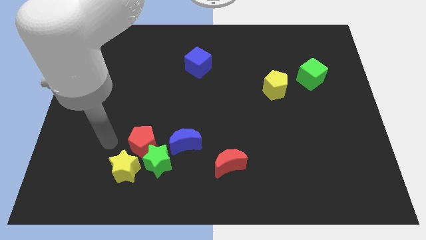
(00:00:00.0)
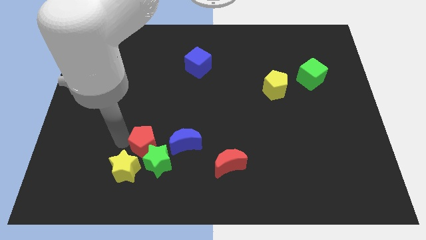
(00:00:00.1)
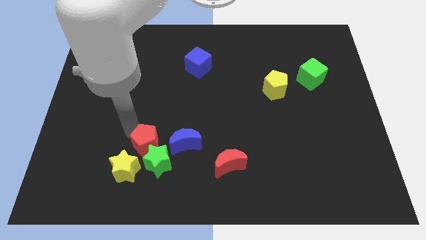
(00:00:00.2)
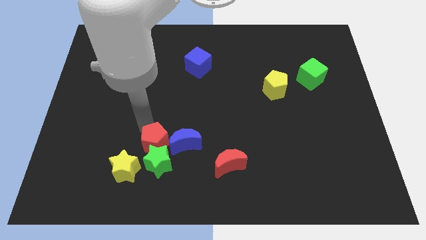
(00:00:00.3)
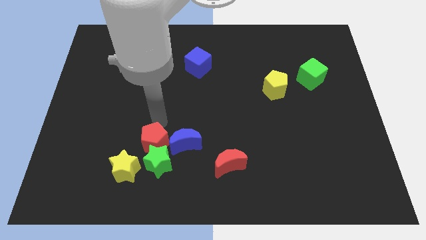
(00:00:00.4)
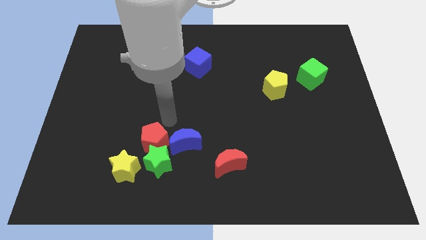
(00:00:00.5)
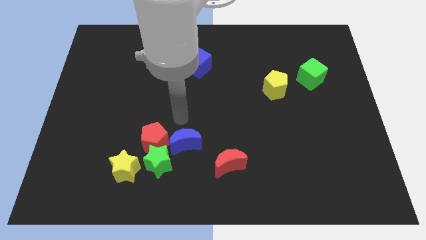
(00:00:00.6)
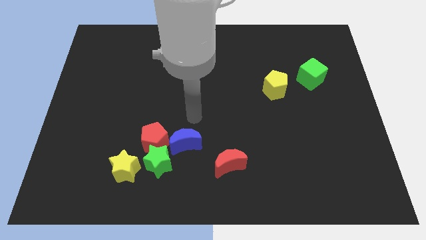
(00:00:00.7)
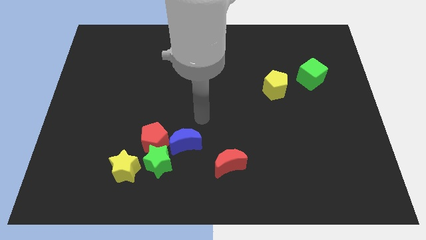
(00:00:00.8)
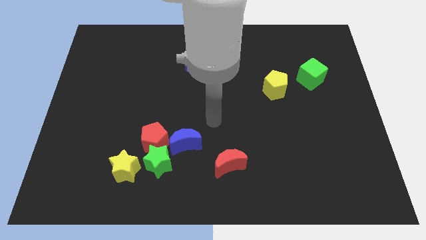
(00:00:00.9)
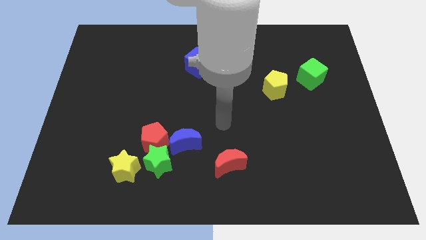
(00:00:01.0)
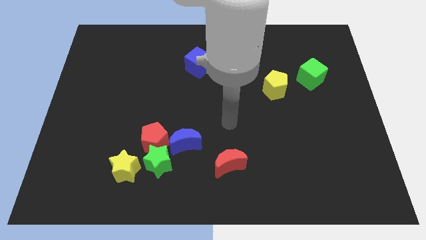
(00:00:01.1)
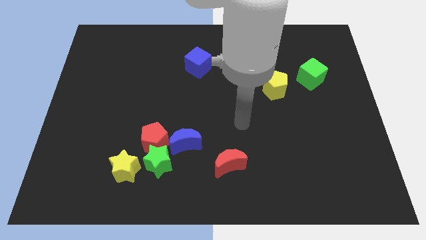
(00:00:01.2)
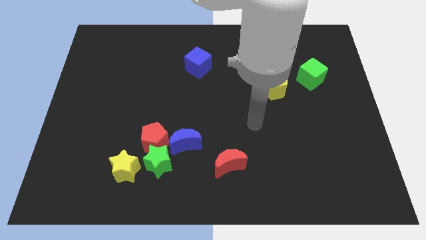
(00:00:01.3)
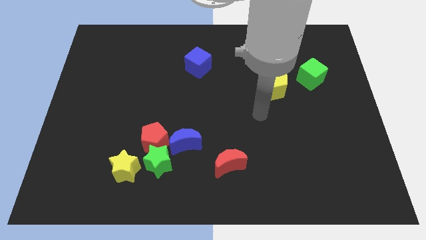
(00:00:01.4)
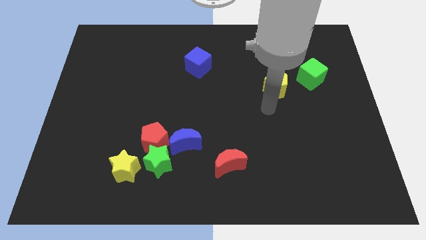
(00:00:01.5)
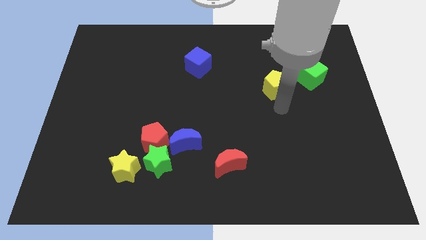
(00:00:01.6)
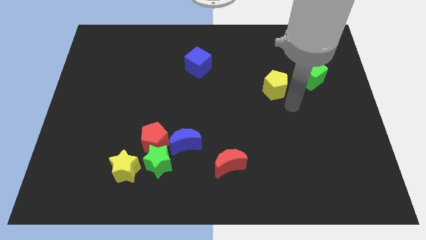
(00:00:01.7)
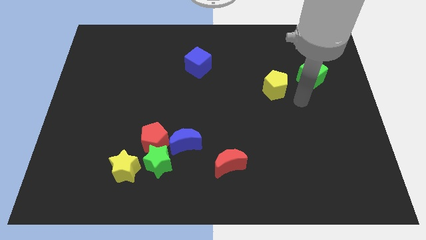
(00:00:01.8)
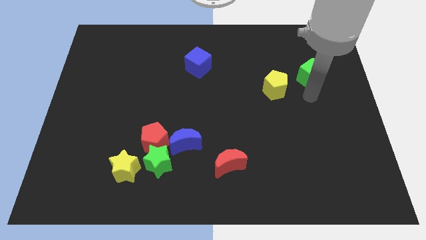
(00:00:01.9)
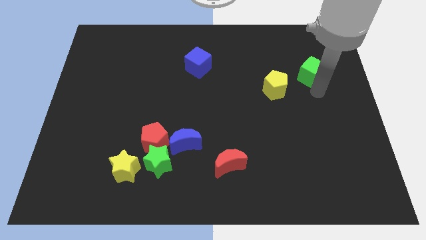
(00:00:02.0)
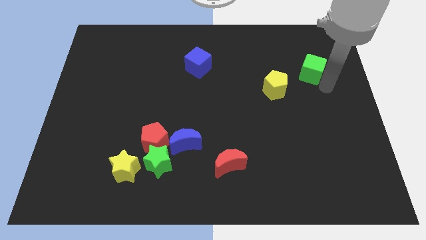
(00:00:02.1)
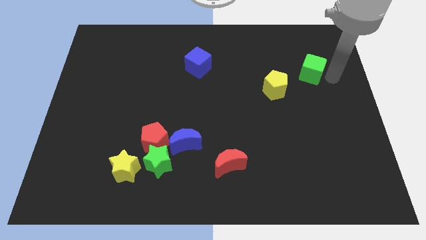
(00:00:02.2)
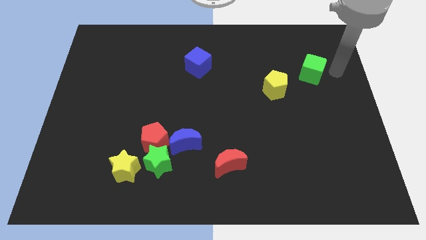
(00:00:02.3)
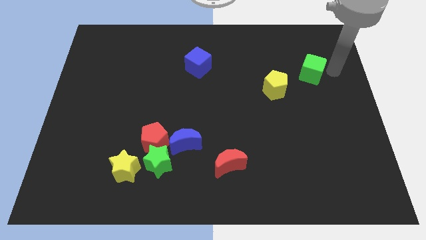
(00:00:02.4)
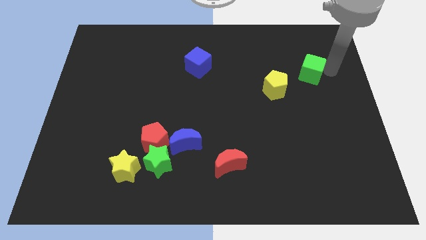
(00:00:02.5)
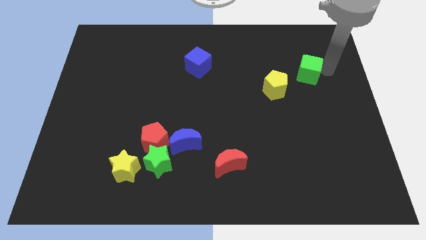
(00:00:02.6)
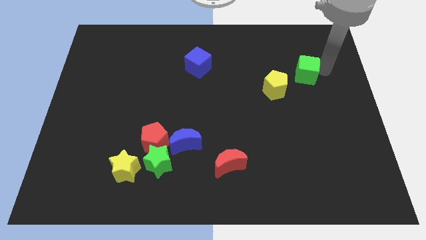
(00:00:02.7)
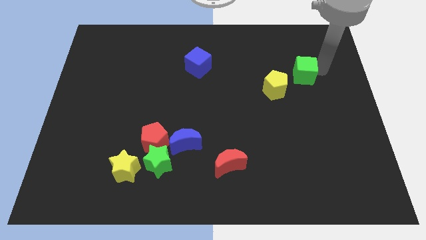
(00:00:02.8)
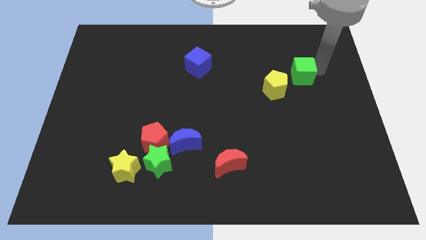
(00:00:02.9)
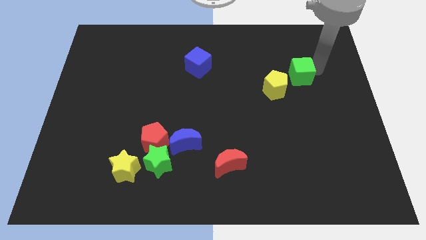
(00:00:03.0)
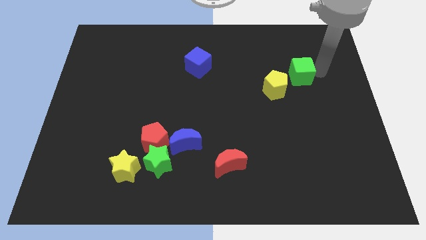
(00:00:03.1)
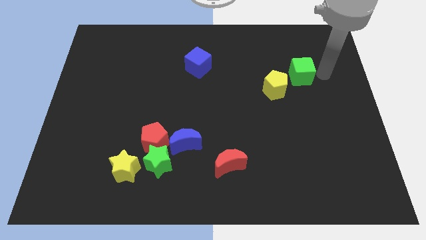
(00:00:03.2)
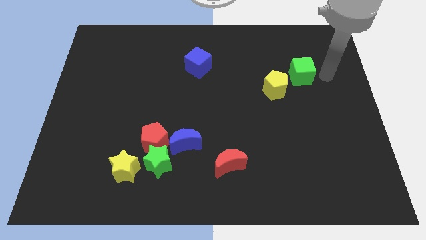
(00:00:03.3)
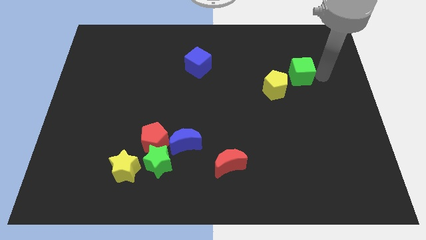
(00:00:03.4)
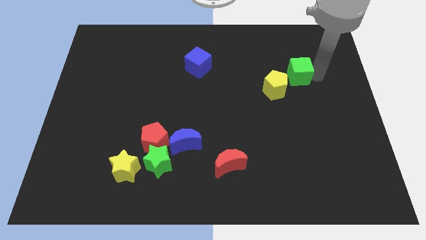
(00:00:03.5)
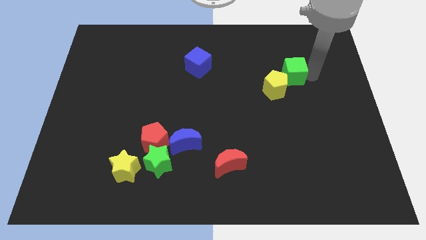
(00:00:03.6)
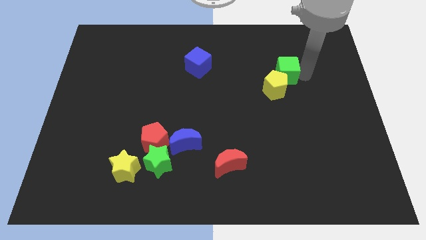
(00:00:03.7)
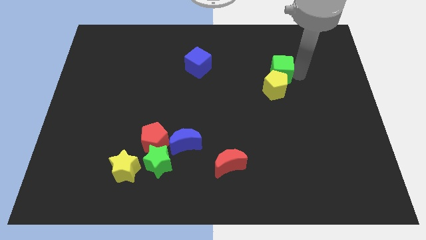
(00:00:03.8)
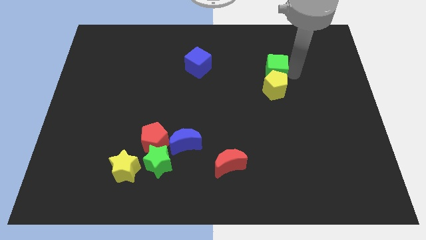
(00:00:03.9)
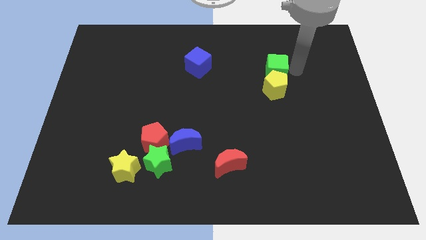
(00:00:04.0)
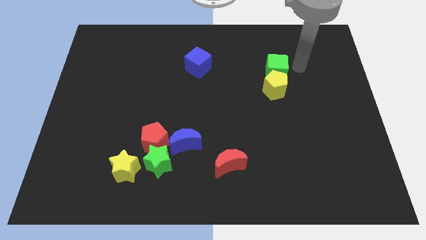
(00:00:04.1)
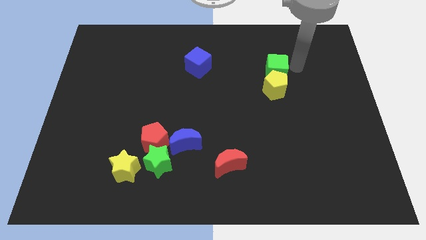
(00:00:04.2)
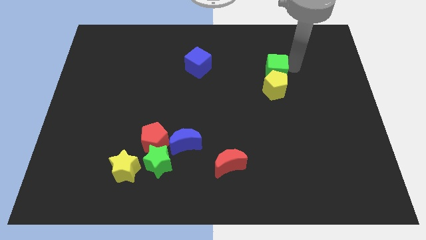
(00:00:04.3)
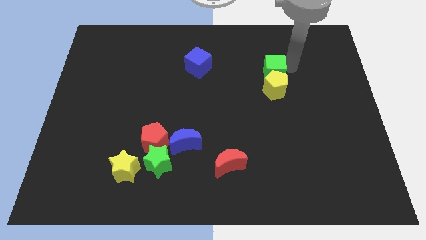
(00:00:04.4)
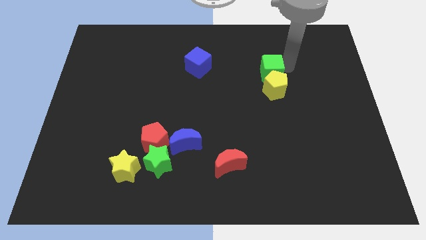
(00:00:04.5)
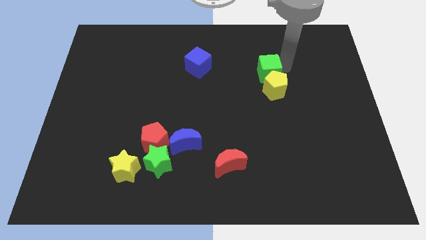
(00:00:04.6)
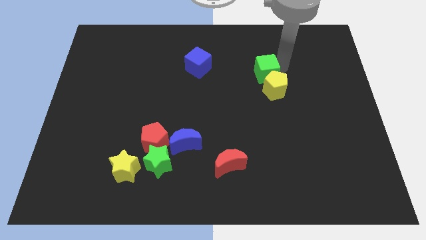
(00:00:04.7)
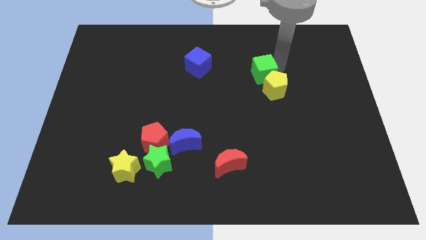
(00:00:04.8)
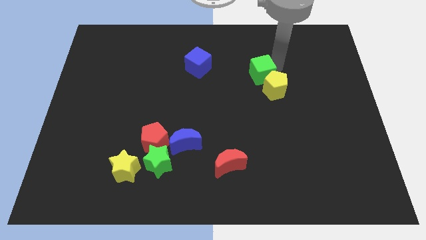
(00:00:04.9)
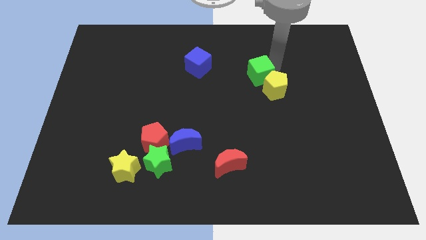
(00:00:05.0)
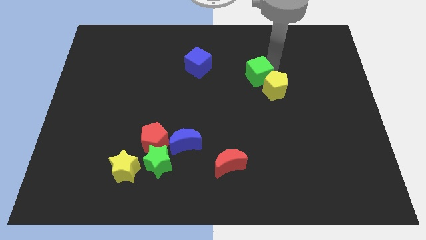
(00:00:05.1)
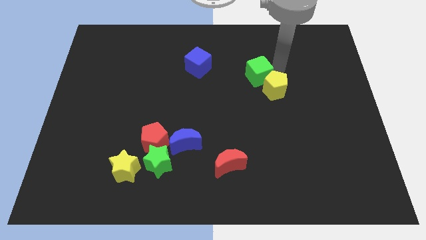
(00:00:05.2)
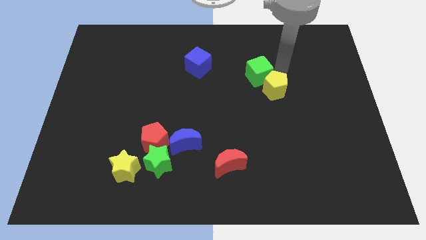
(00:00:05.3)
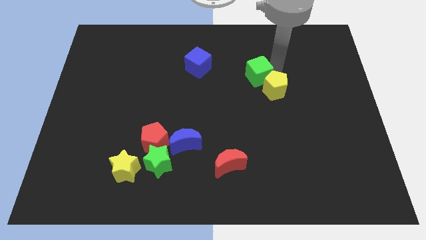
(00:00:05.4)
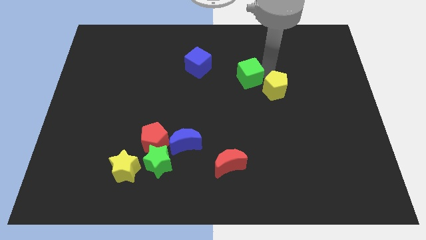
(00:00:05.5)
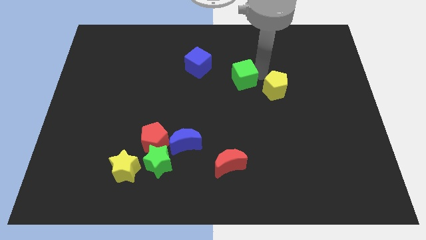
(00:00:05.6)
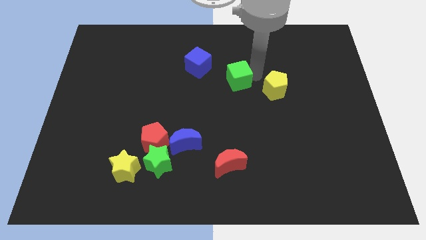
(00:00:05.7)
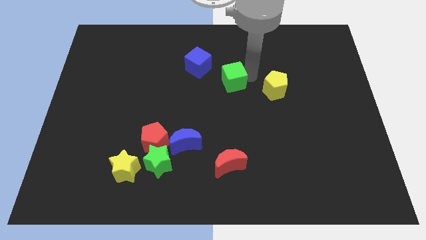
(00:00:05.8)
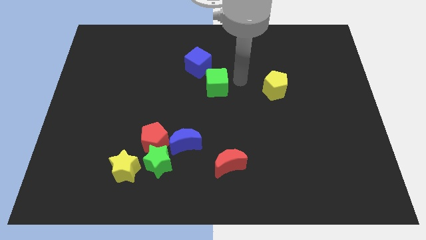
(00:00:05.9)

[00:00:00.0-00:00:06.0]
move the green cube left

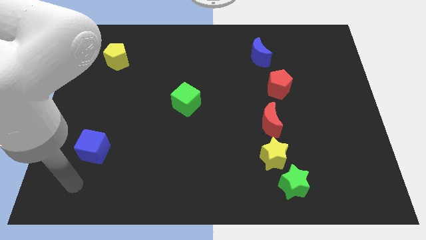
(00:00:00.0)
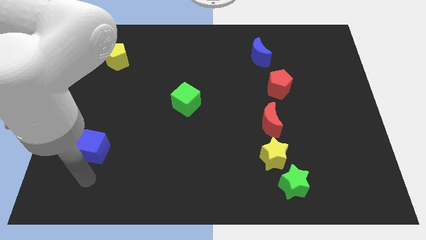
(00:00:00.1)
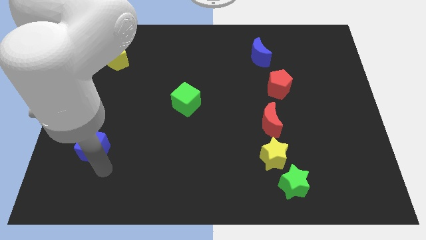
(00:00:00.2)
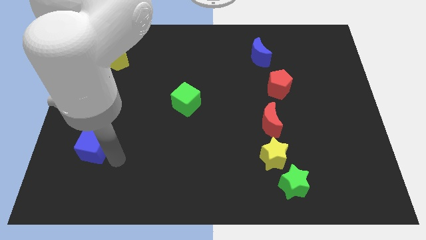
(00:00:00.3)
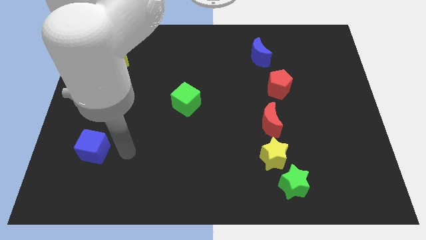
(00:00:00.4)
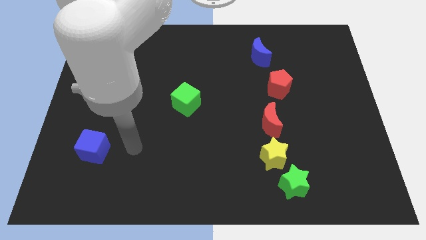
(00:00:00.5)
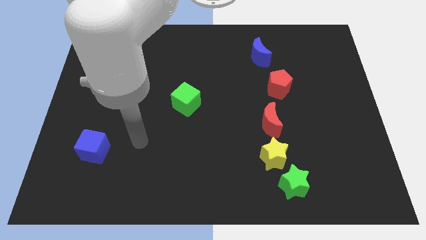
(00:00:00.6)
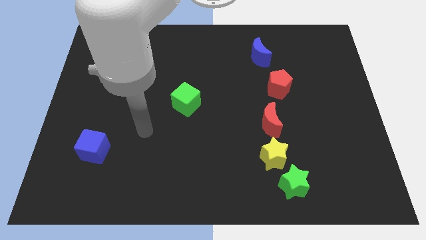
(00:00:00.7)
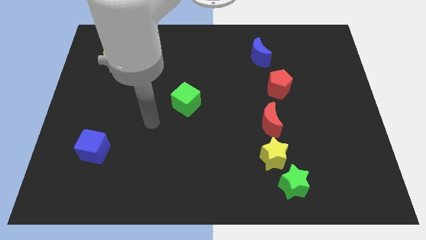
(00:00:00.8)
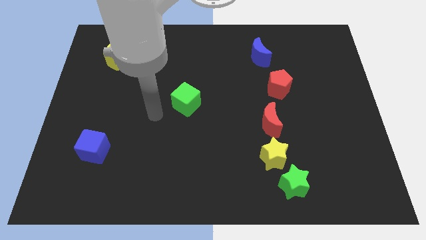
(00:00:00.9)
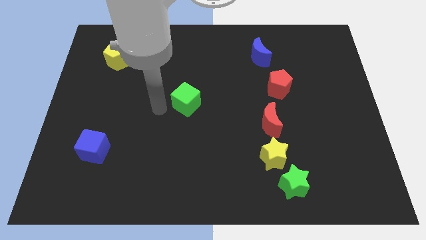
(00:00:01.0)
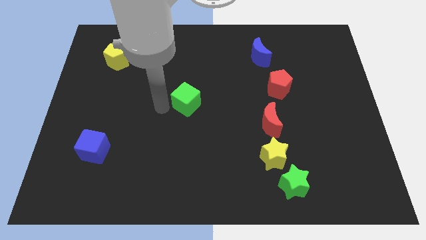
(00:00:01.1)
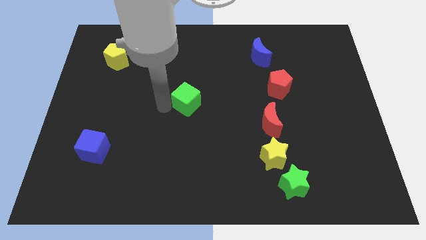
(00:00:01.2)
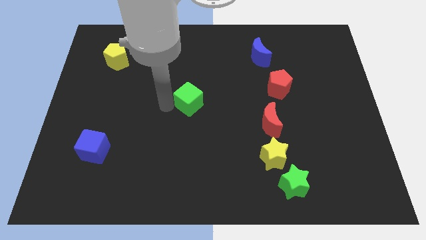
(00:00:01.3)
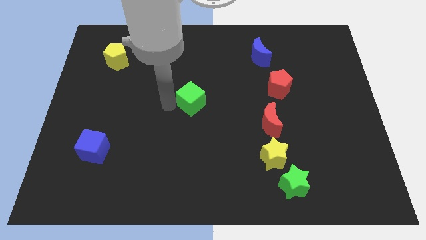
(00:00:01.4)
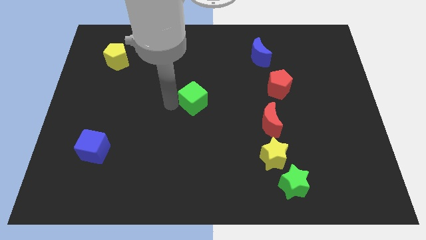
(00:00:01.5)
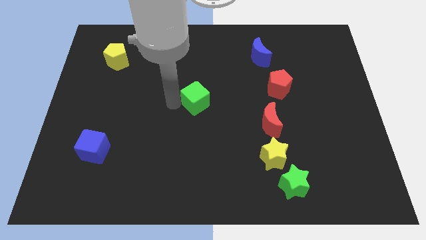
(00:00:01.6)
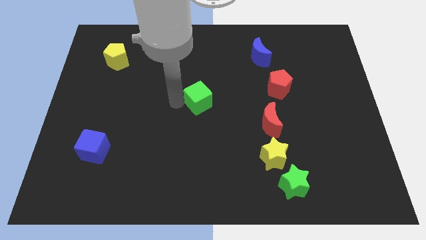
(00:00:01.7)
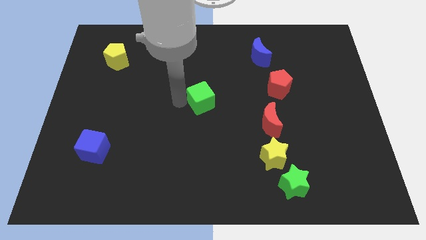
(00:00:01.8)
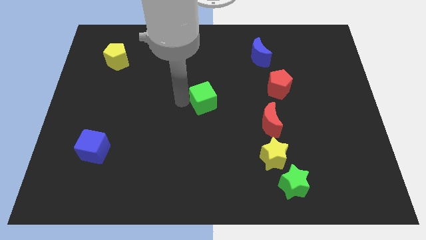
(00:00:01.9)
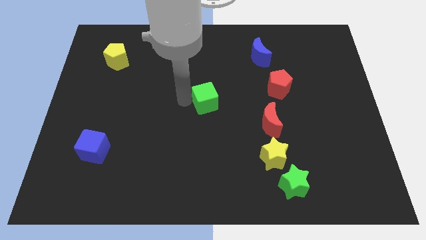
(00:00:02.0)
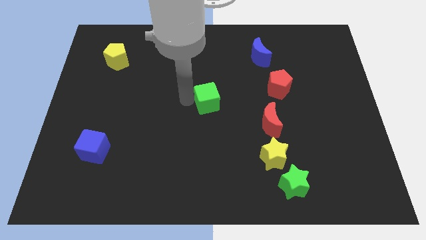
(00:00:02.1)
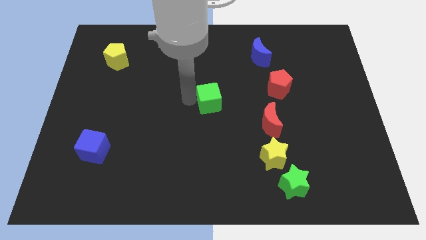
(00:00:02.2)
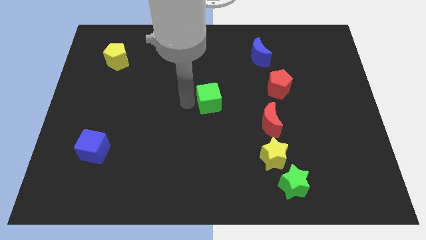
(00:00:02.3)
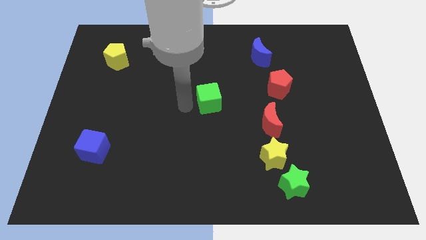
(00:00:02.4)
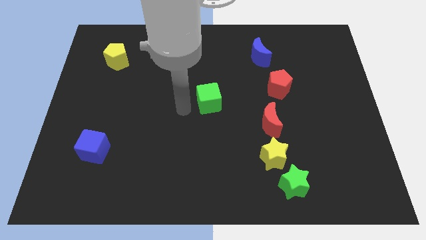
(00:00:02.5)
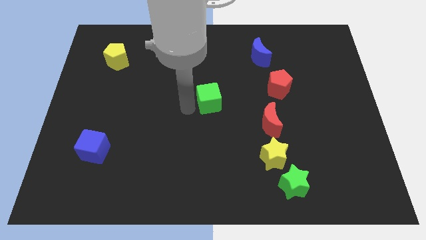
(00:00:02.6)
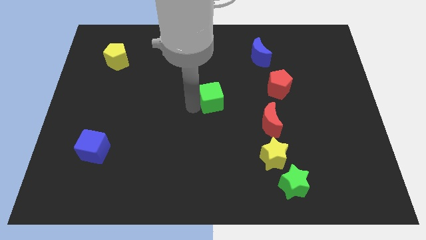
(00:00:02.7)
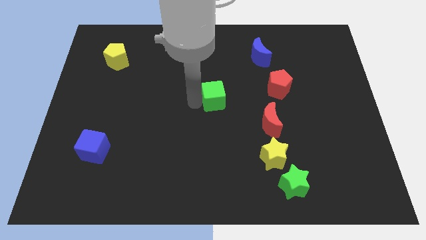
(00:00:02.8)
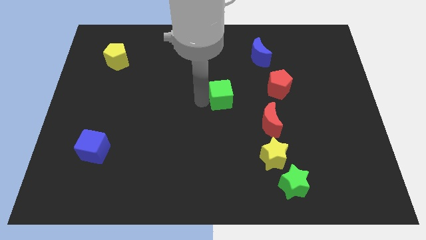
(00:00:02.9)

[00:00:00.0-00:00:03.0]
slightly move the green cube right
